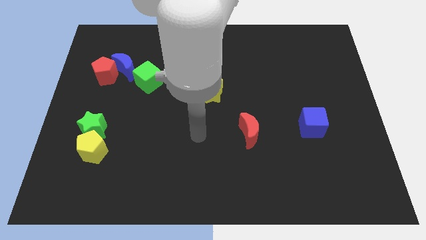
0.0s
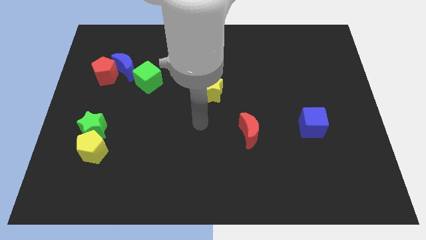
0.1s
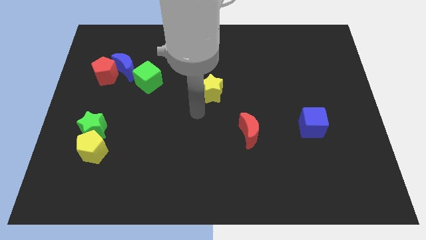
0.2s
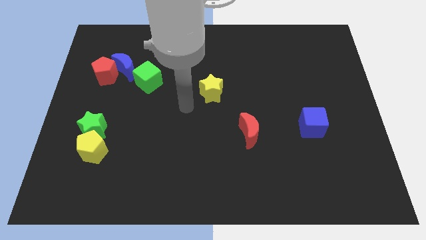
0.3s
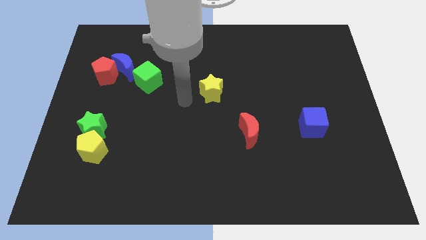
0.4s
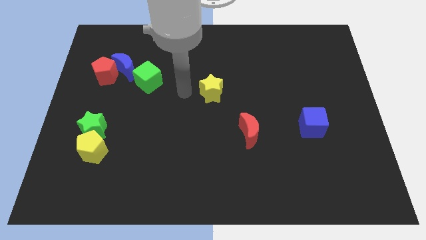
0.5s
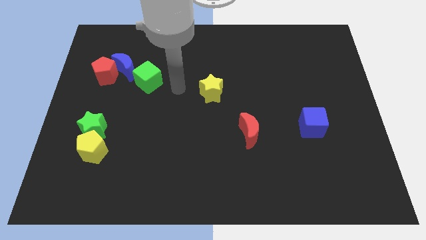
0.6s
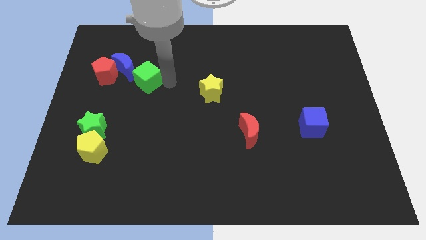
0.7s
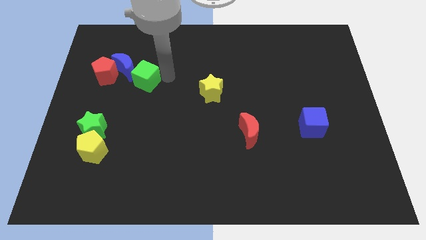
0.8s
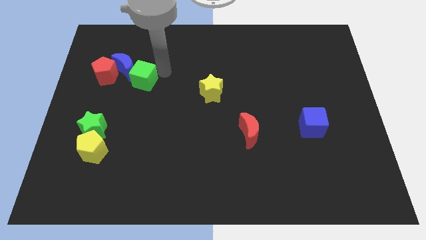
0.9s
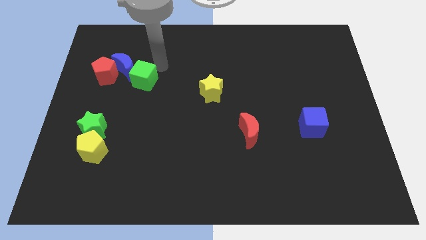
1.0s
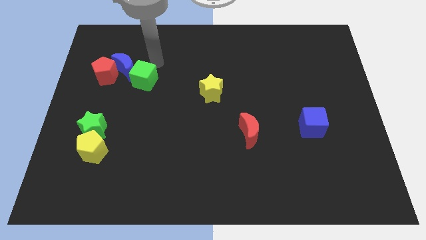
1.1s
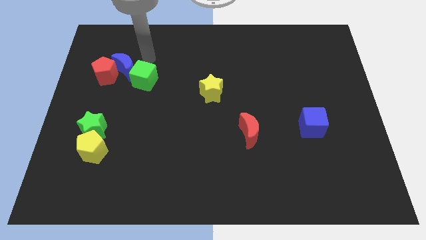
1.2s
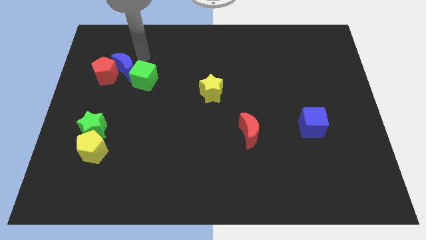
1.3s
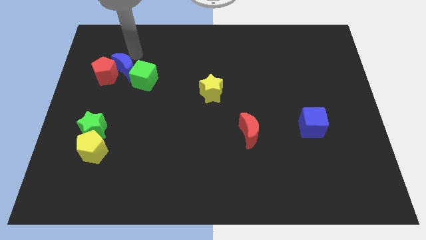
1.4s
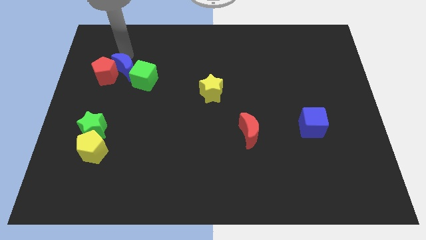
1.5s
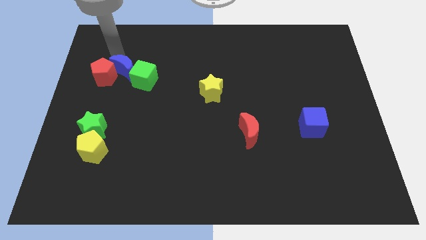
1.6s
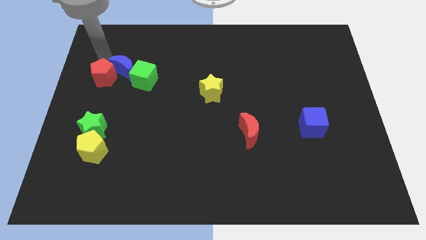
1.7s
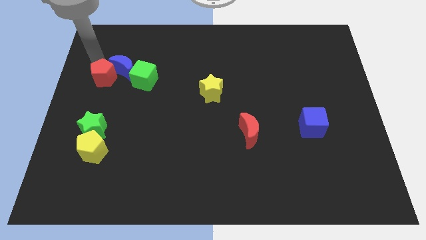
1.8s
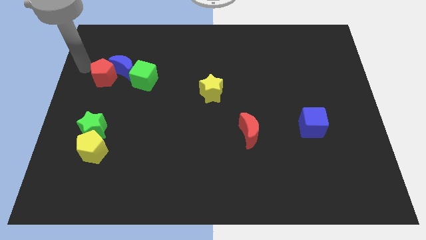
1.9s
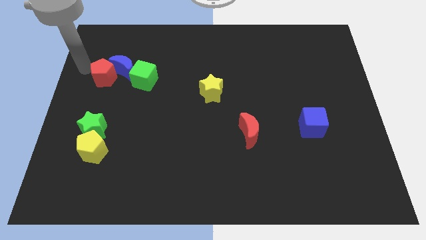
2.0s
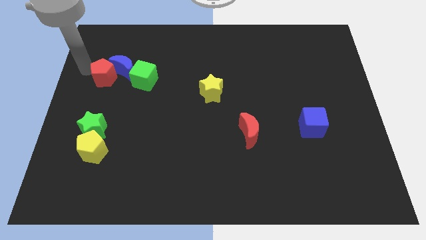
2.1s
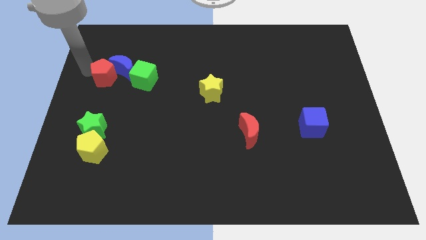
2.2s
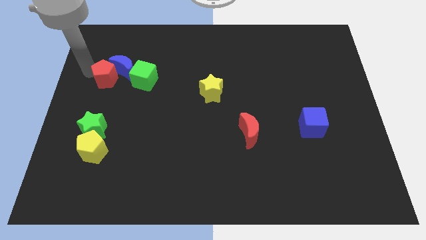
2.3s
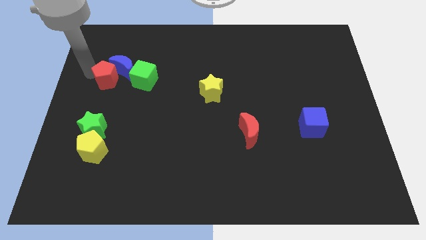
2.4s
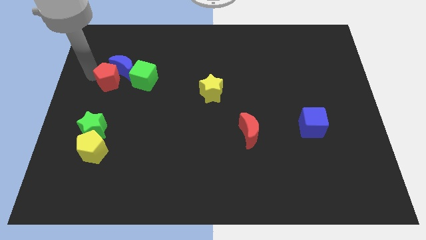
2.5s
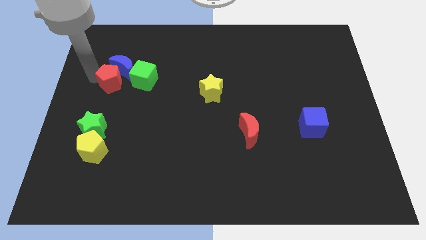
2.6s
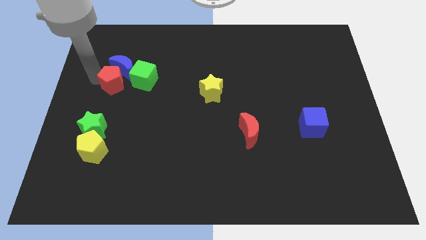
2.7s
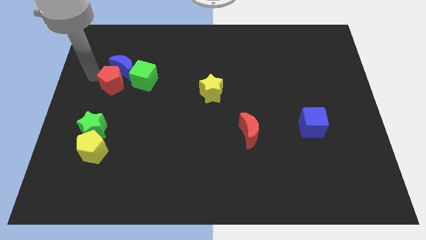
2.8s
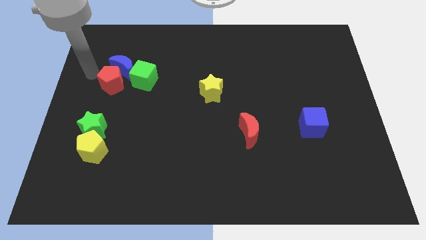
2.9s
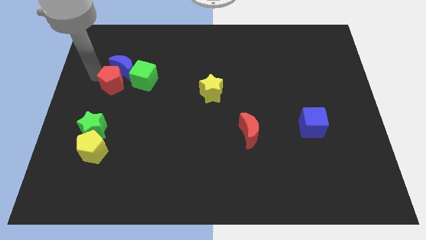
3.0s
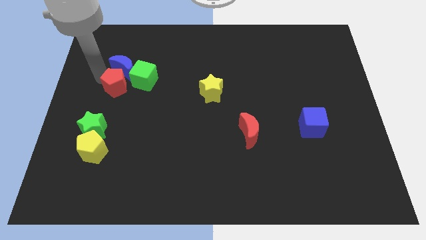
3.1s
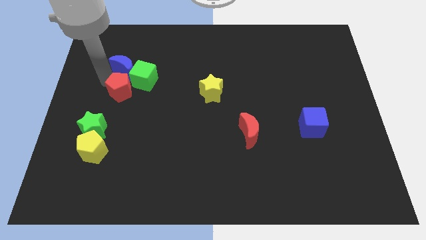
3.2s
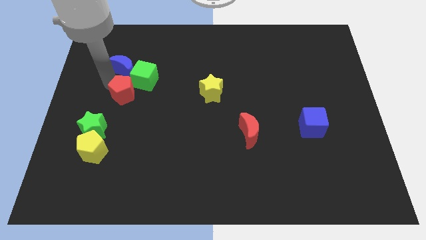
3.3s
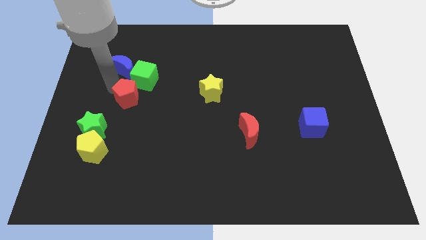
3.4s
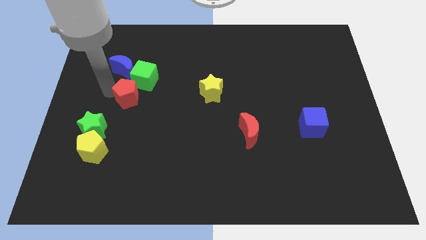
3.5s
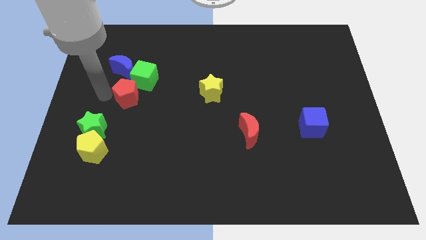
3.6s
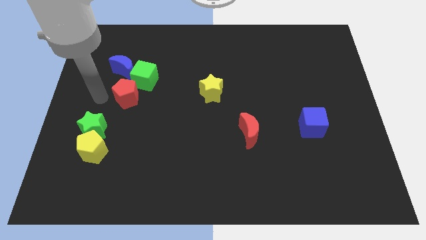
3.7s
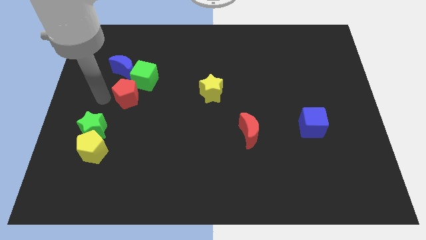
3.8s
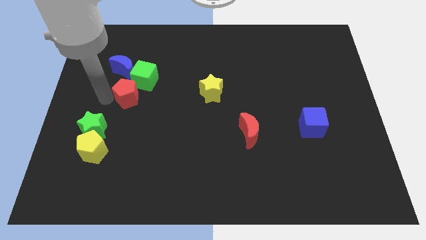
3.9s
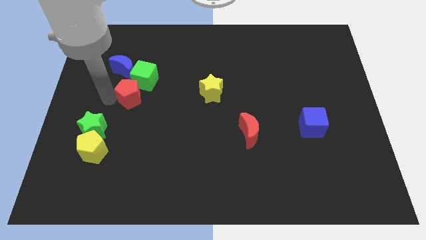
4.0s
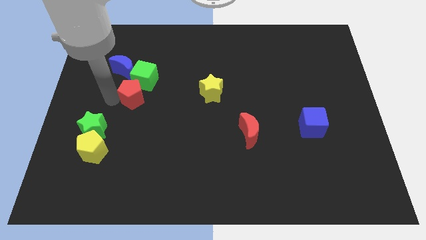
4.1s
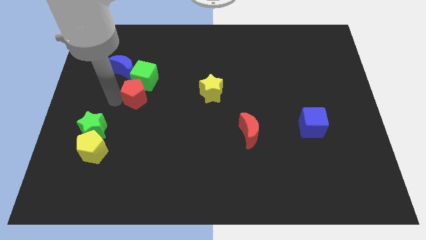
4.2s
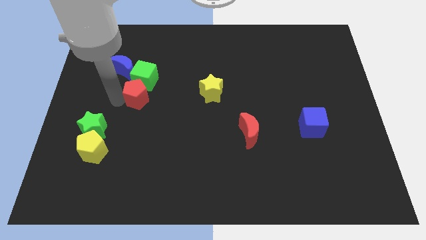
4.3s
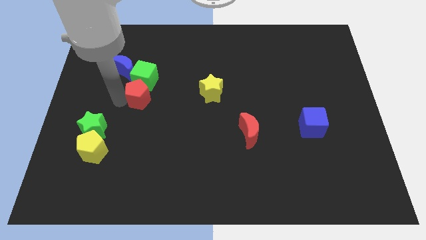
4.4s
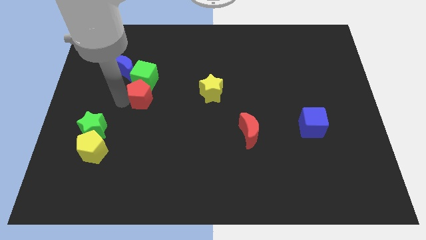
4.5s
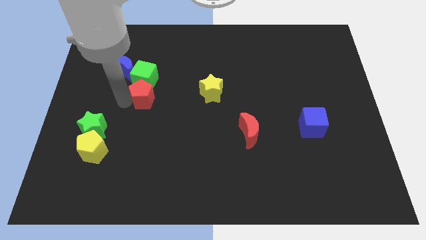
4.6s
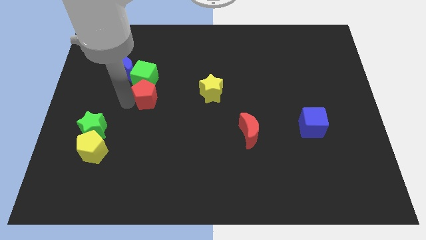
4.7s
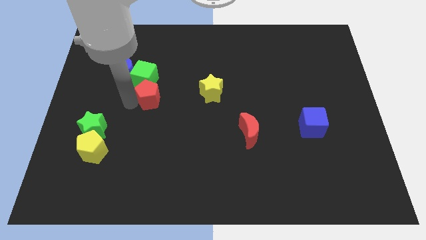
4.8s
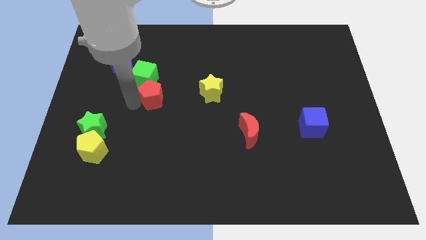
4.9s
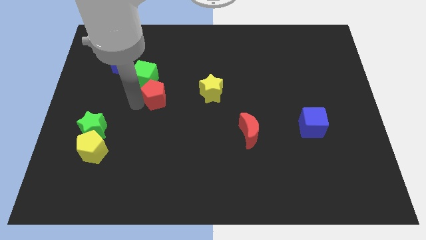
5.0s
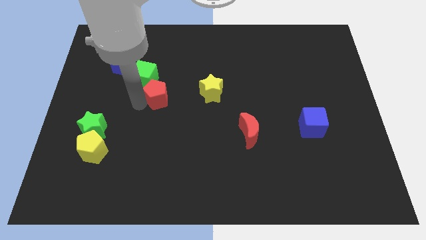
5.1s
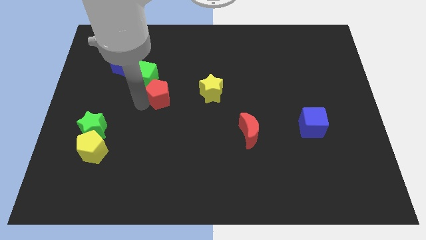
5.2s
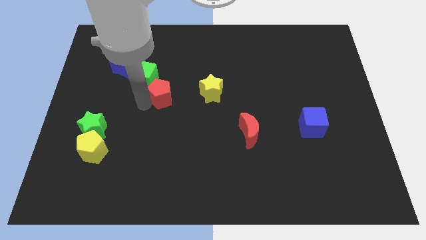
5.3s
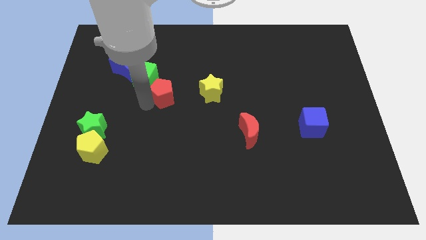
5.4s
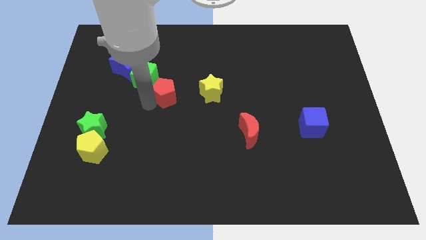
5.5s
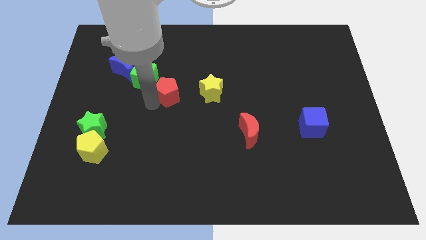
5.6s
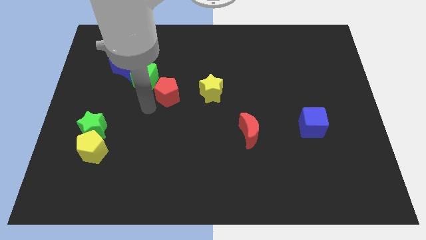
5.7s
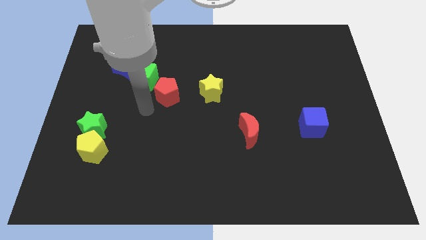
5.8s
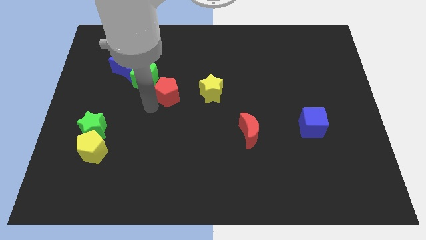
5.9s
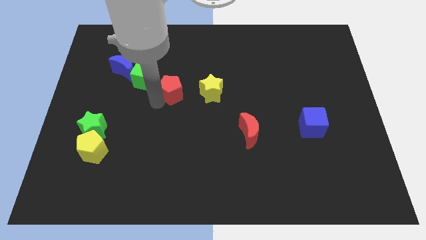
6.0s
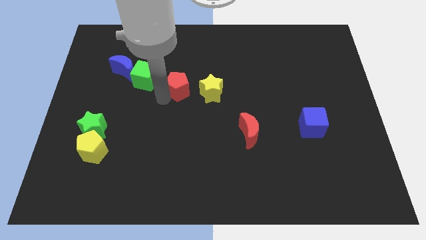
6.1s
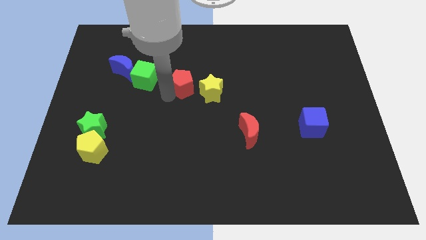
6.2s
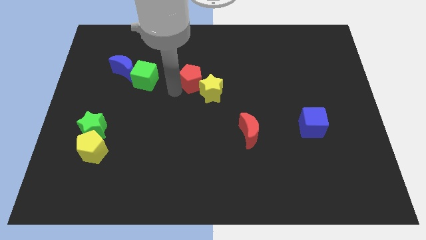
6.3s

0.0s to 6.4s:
slide the red pentagon right

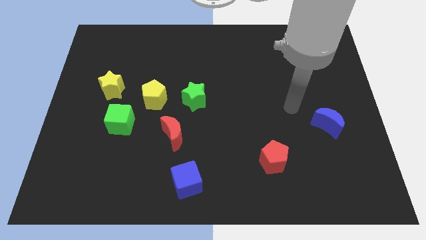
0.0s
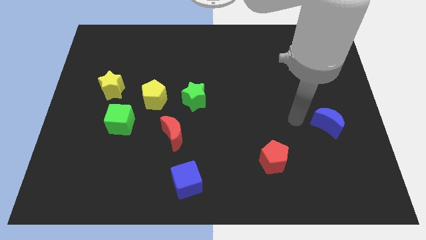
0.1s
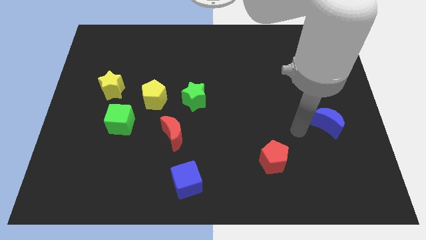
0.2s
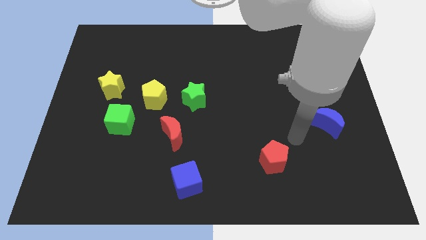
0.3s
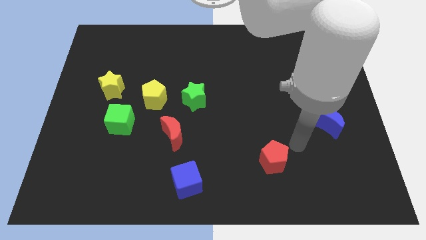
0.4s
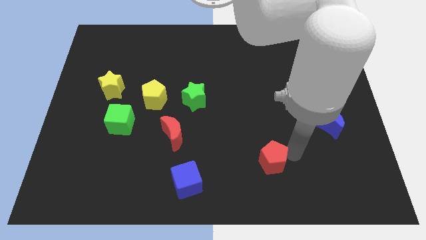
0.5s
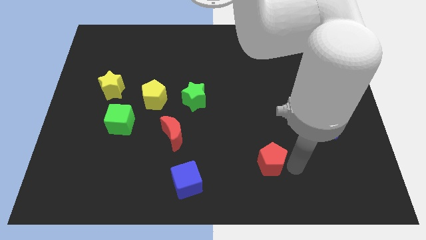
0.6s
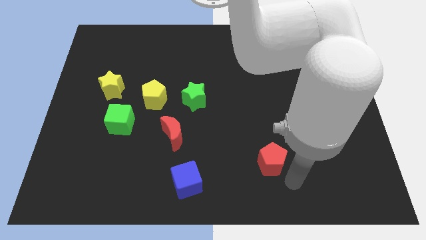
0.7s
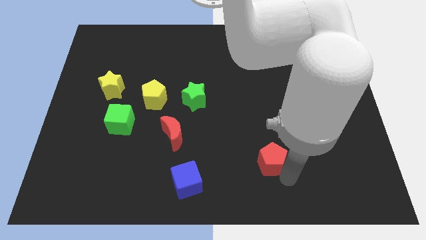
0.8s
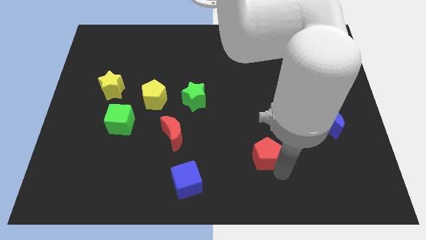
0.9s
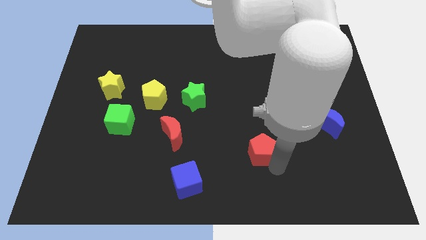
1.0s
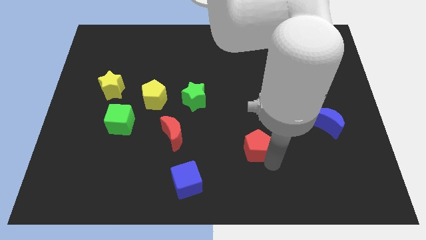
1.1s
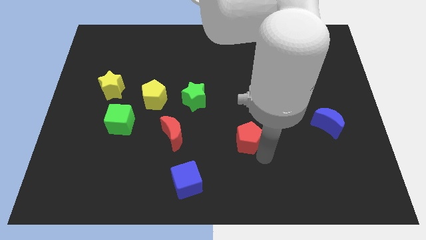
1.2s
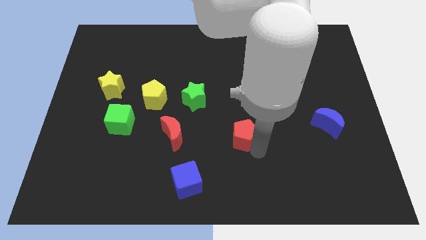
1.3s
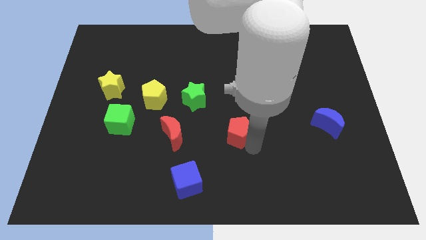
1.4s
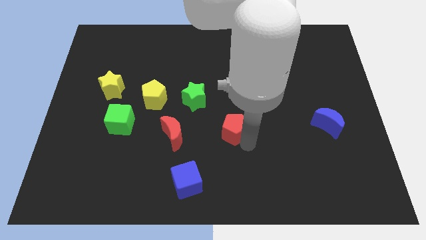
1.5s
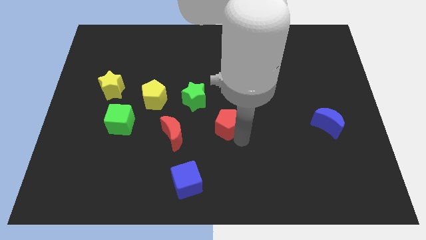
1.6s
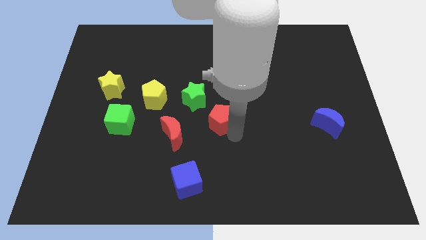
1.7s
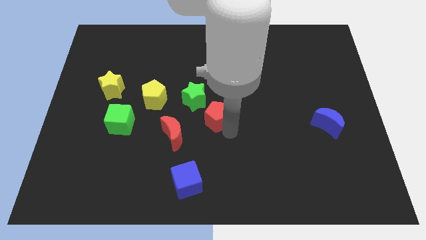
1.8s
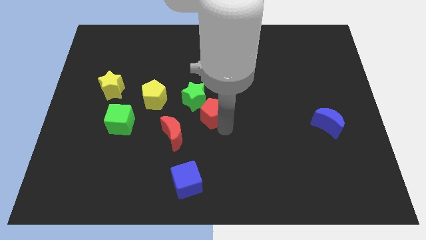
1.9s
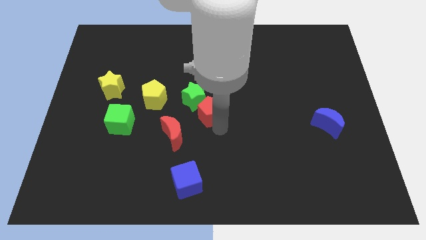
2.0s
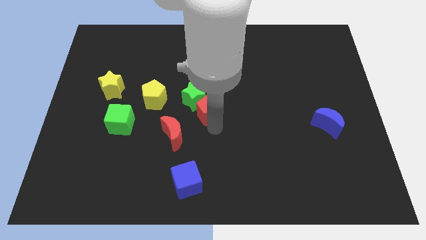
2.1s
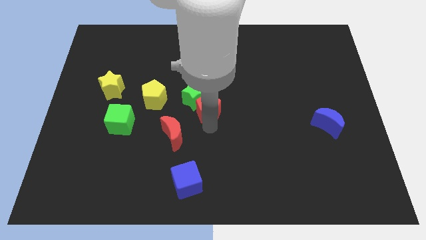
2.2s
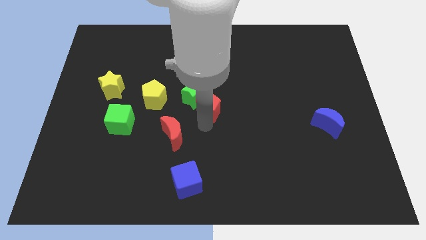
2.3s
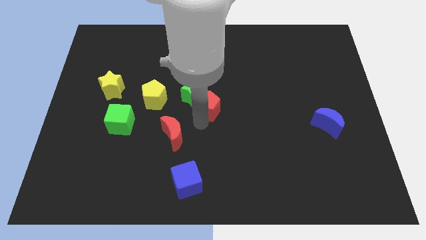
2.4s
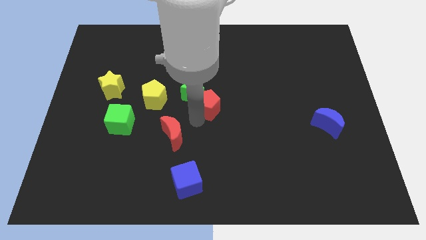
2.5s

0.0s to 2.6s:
slide the red pentagon upwards and then left
